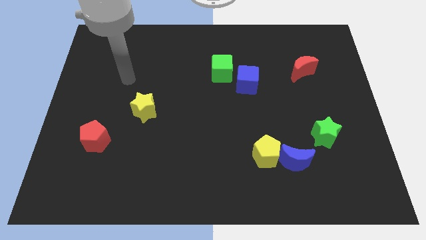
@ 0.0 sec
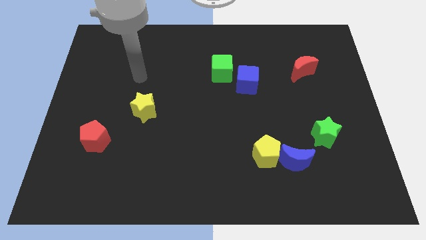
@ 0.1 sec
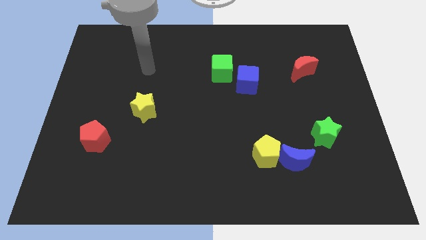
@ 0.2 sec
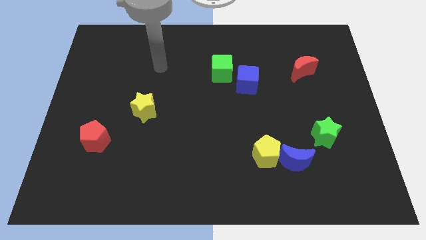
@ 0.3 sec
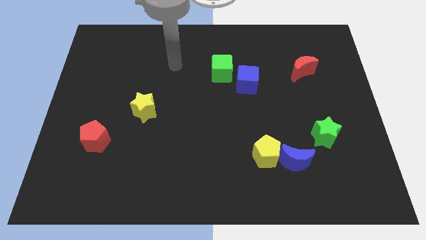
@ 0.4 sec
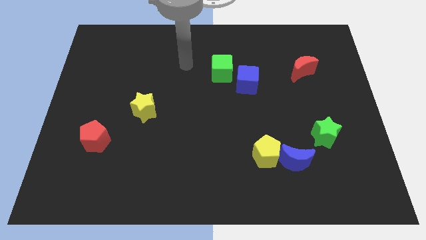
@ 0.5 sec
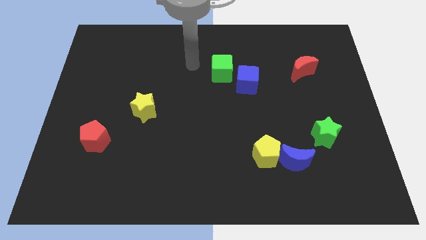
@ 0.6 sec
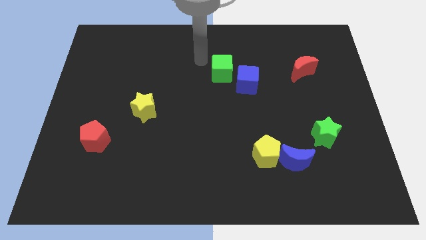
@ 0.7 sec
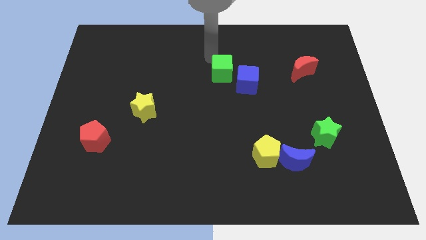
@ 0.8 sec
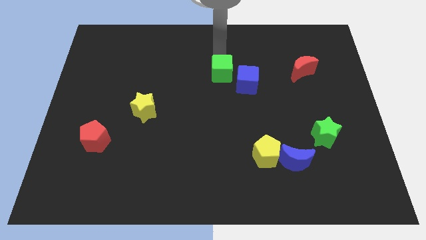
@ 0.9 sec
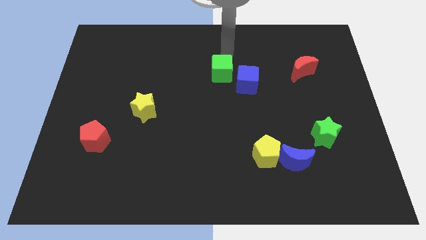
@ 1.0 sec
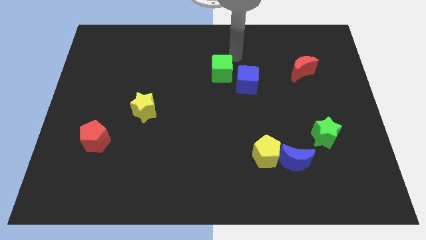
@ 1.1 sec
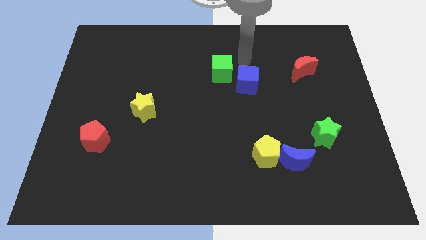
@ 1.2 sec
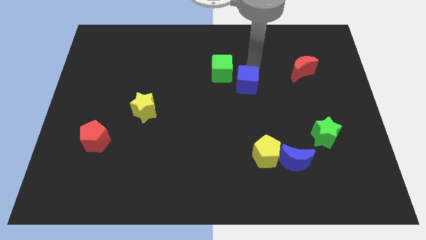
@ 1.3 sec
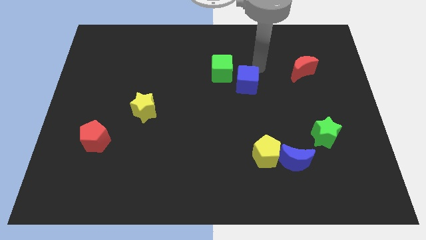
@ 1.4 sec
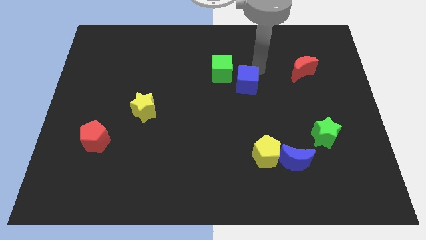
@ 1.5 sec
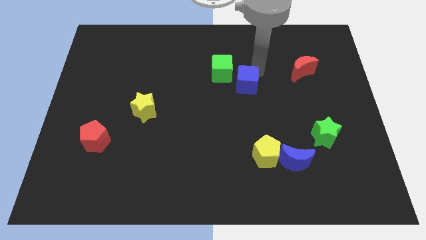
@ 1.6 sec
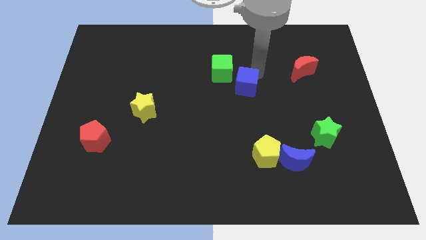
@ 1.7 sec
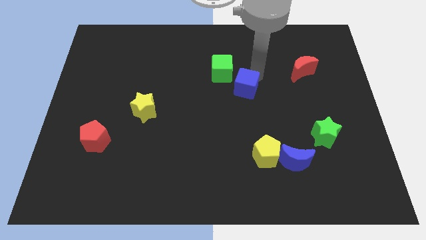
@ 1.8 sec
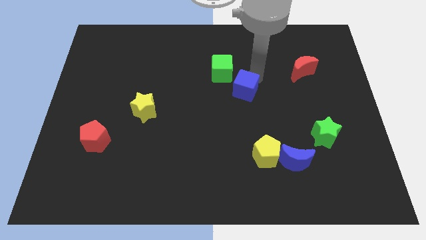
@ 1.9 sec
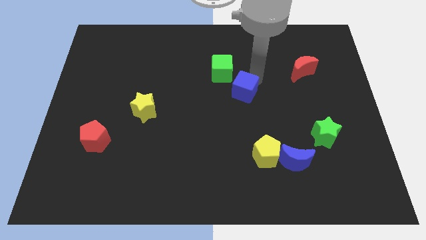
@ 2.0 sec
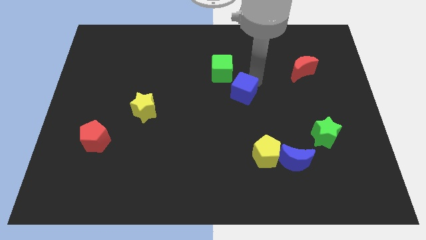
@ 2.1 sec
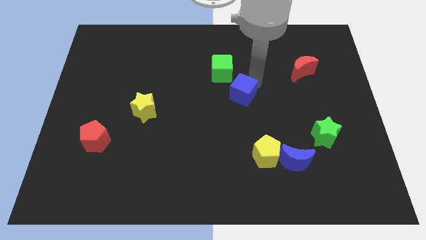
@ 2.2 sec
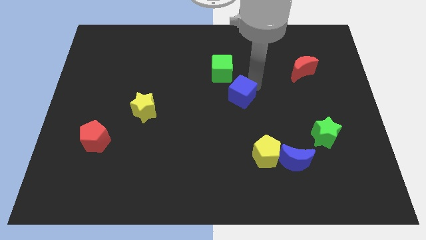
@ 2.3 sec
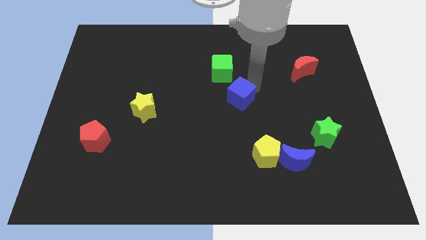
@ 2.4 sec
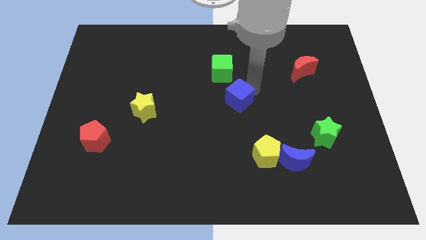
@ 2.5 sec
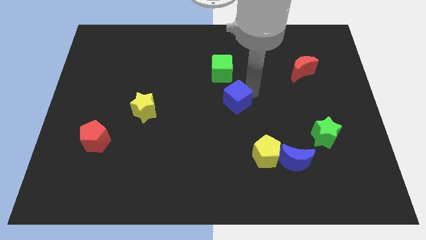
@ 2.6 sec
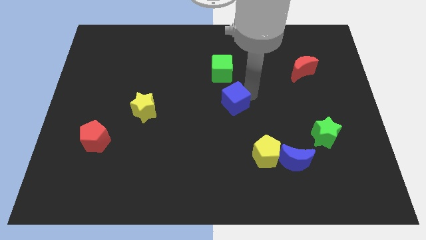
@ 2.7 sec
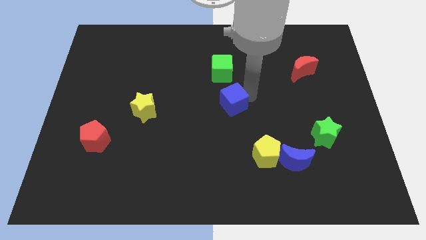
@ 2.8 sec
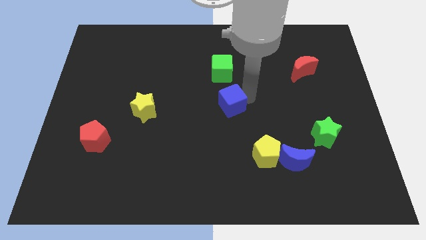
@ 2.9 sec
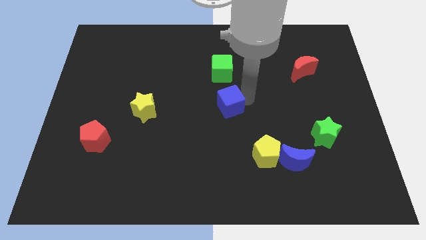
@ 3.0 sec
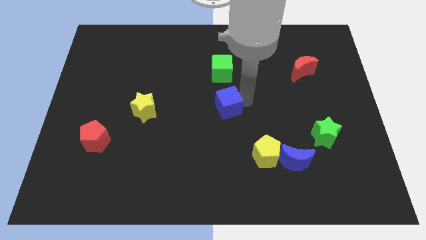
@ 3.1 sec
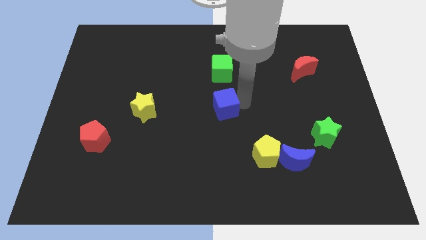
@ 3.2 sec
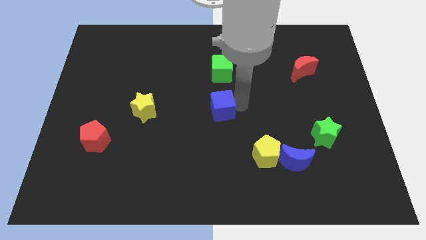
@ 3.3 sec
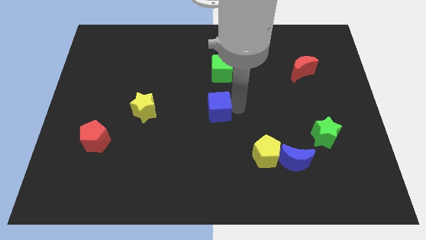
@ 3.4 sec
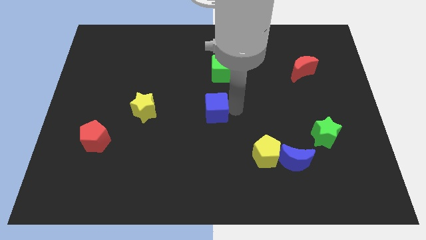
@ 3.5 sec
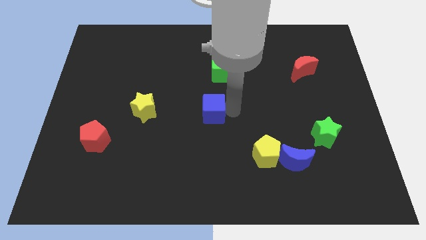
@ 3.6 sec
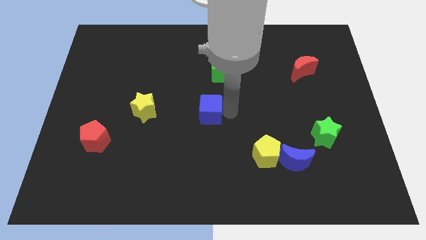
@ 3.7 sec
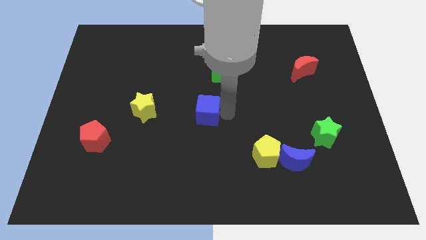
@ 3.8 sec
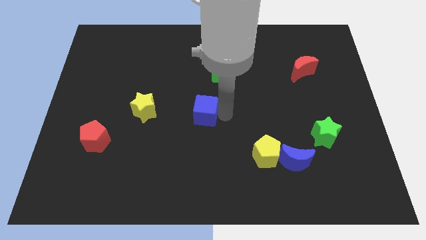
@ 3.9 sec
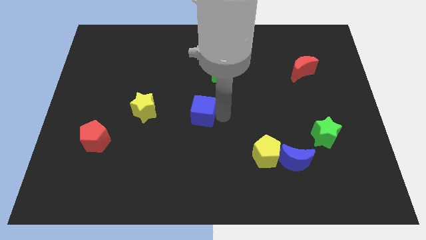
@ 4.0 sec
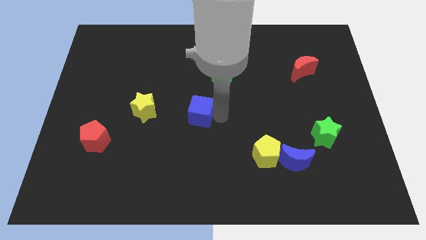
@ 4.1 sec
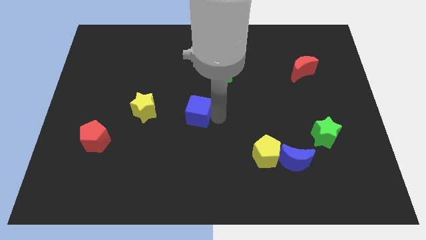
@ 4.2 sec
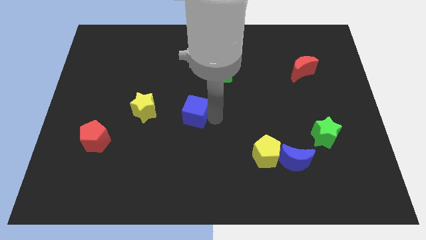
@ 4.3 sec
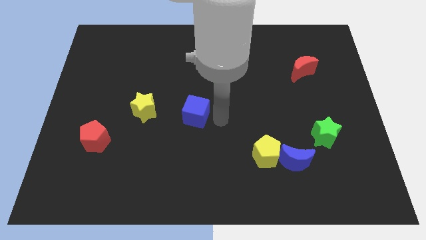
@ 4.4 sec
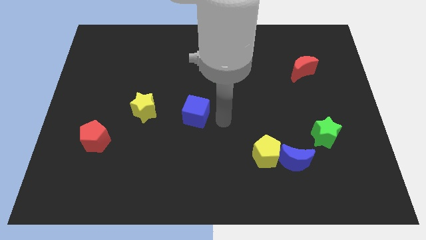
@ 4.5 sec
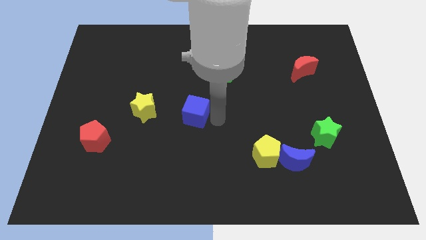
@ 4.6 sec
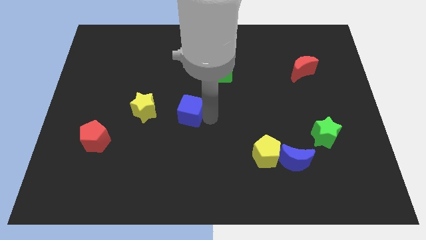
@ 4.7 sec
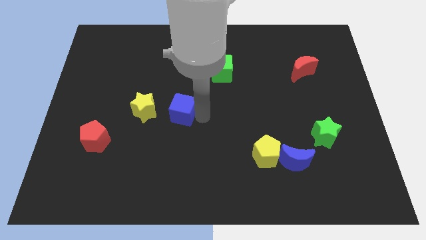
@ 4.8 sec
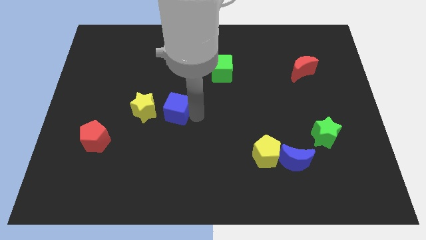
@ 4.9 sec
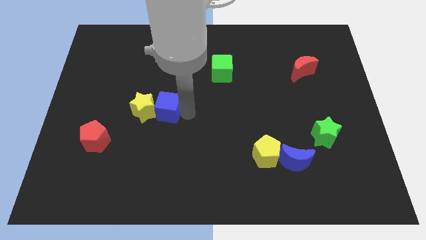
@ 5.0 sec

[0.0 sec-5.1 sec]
slide the blue cube towards the yellow star

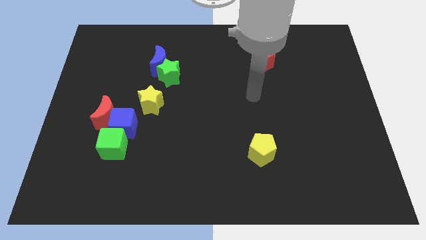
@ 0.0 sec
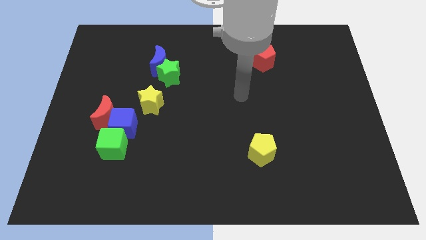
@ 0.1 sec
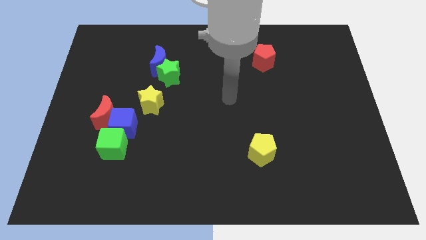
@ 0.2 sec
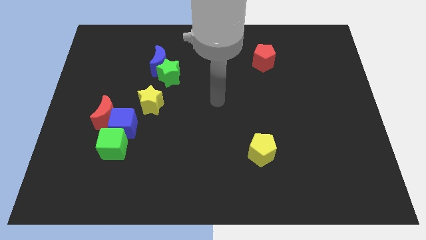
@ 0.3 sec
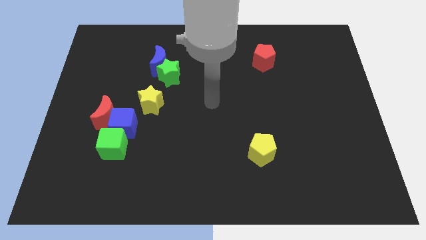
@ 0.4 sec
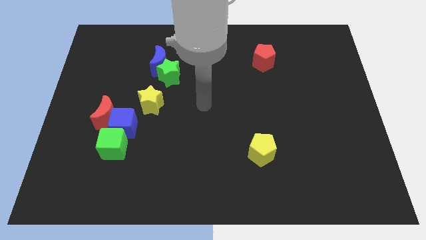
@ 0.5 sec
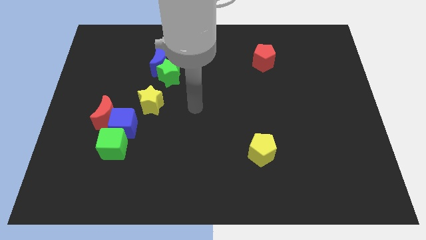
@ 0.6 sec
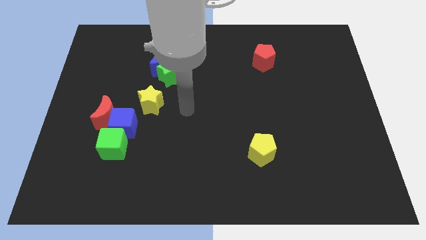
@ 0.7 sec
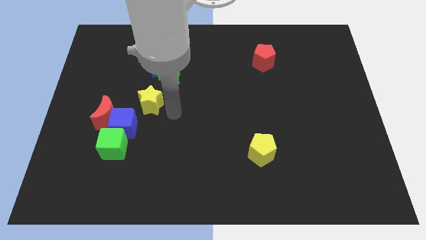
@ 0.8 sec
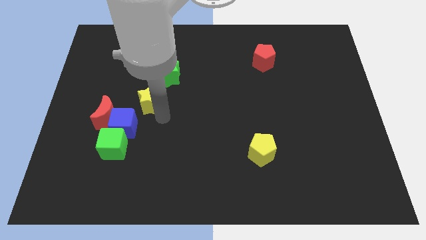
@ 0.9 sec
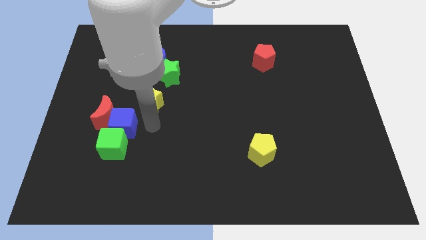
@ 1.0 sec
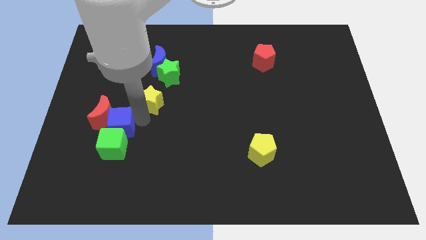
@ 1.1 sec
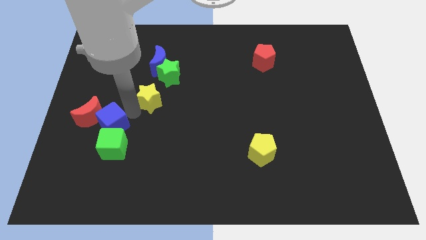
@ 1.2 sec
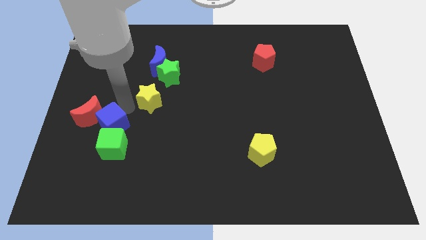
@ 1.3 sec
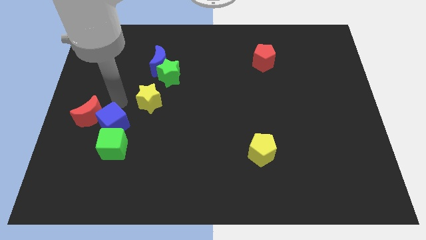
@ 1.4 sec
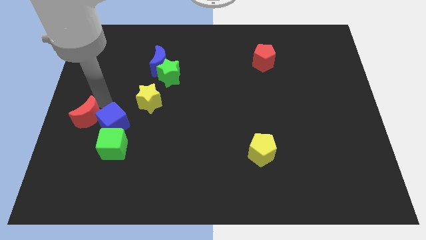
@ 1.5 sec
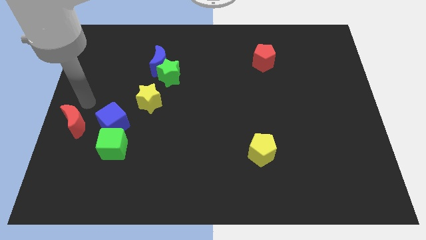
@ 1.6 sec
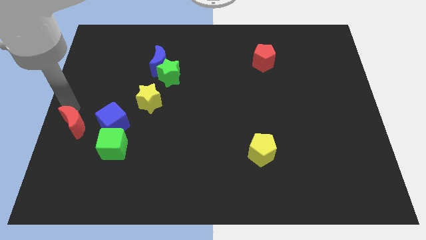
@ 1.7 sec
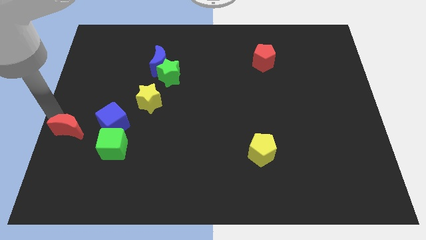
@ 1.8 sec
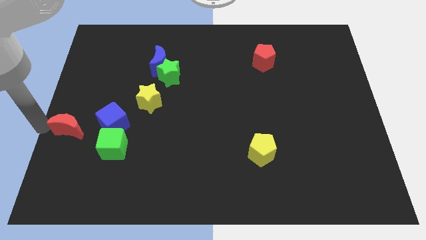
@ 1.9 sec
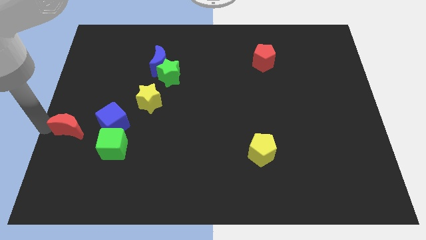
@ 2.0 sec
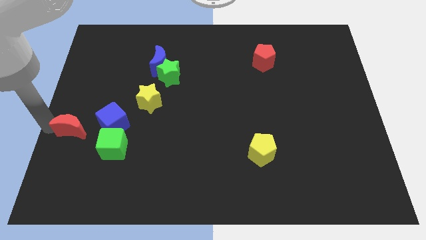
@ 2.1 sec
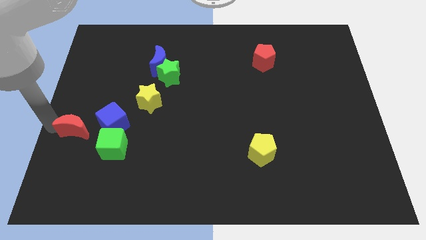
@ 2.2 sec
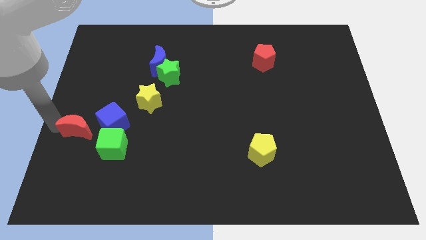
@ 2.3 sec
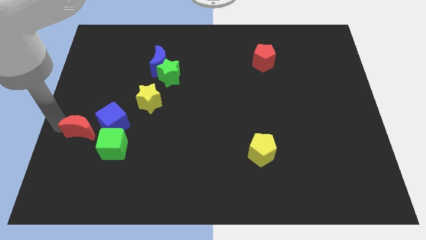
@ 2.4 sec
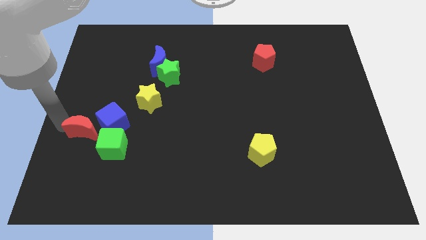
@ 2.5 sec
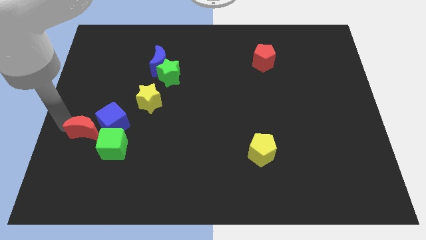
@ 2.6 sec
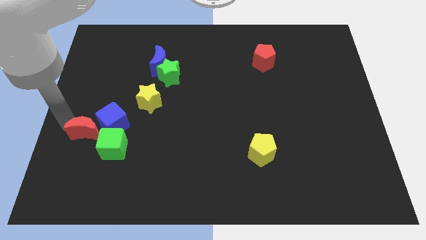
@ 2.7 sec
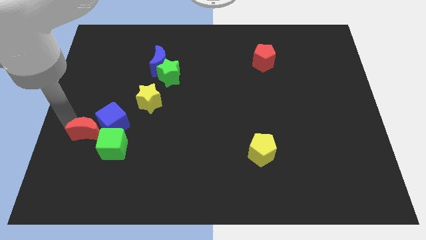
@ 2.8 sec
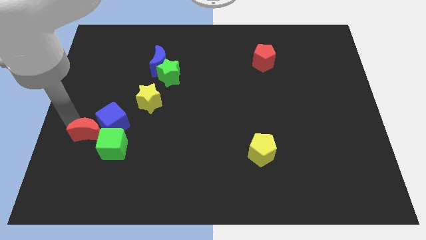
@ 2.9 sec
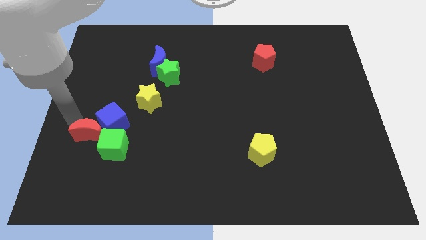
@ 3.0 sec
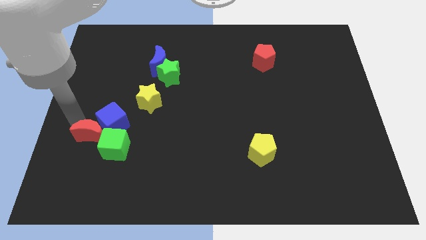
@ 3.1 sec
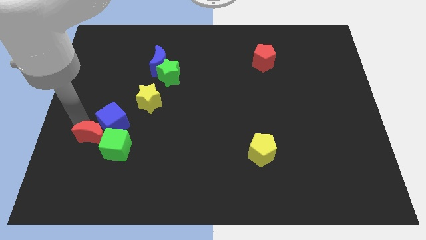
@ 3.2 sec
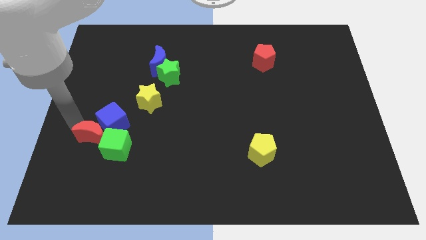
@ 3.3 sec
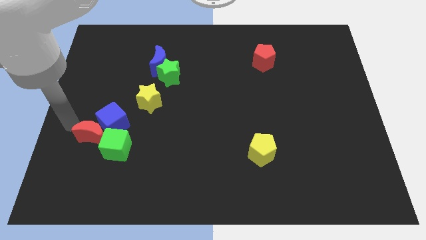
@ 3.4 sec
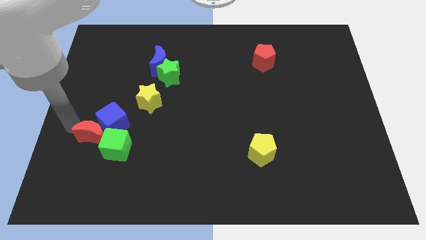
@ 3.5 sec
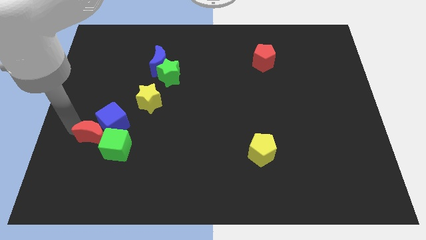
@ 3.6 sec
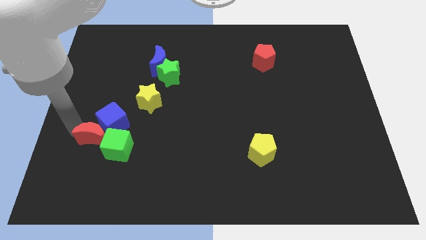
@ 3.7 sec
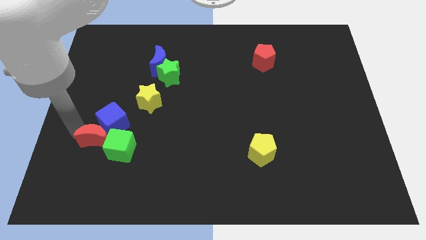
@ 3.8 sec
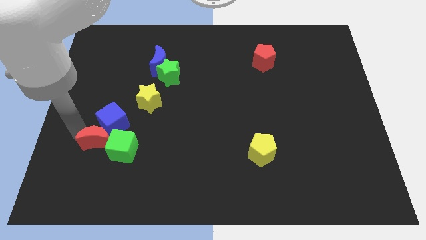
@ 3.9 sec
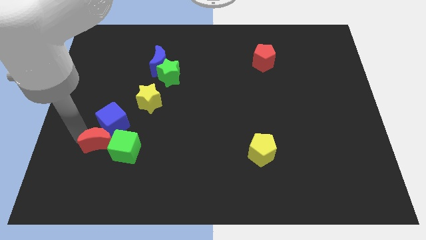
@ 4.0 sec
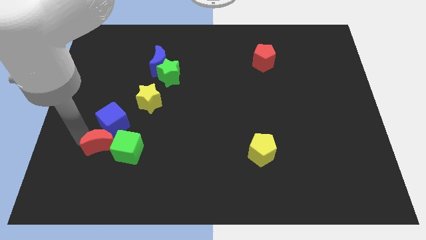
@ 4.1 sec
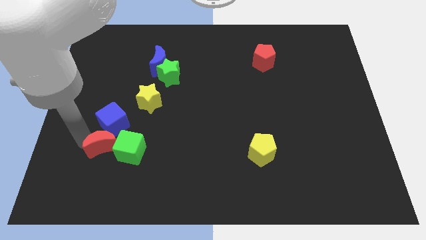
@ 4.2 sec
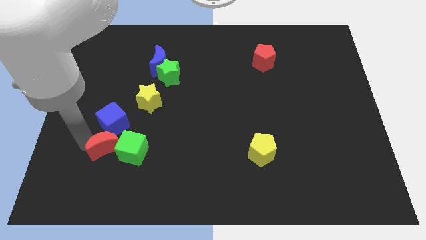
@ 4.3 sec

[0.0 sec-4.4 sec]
move the red moon close to the green cube
